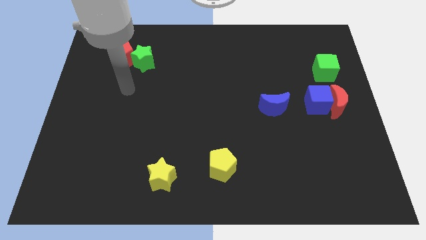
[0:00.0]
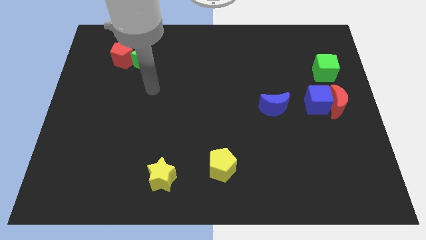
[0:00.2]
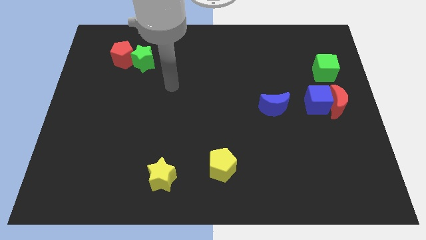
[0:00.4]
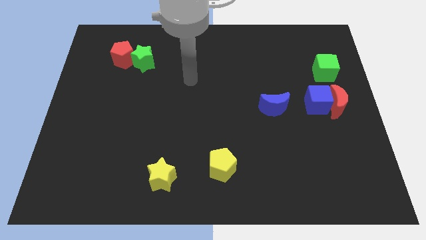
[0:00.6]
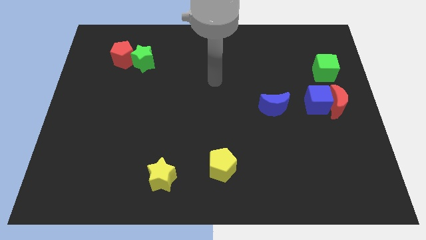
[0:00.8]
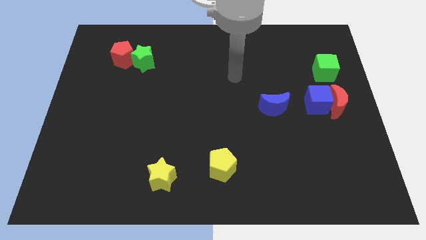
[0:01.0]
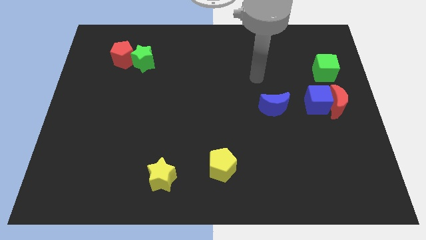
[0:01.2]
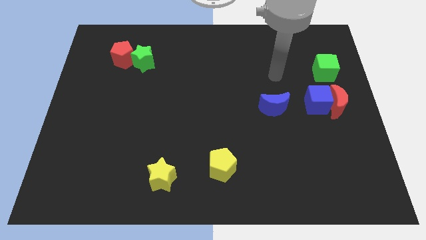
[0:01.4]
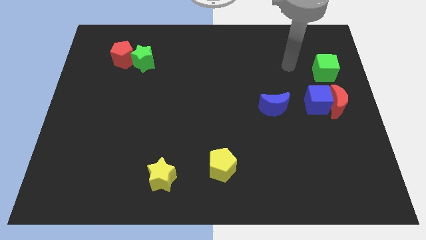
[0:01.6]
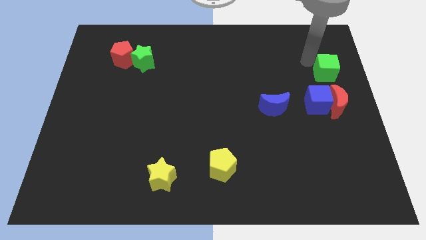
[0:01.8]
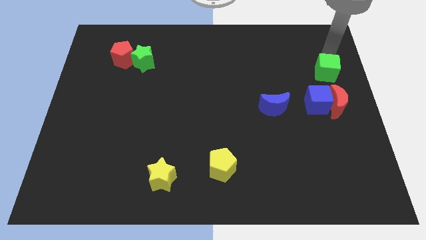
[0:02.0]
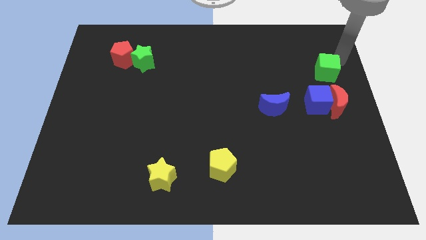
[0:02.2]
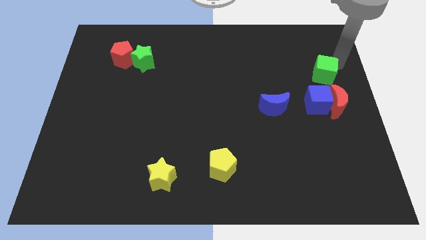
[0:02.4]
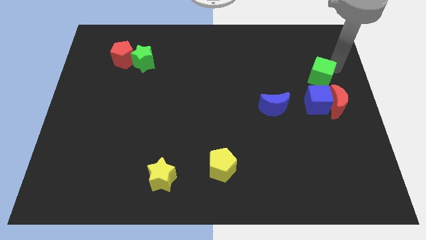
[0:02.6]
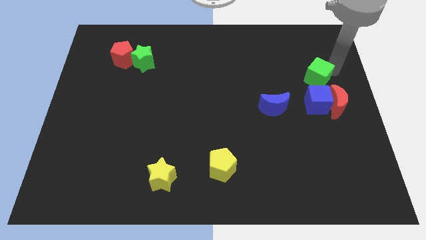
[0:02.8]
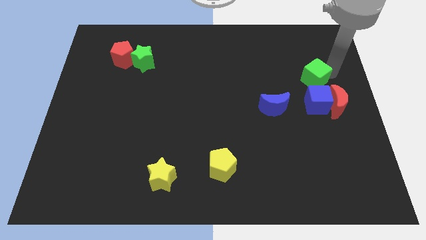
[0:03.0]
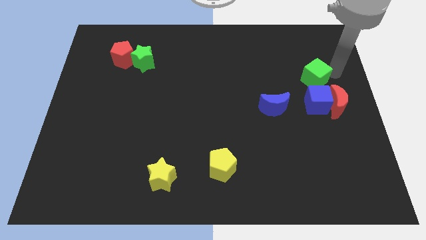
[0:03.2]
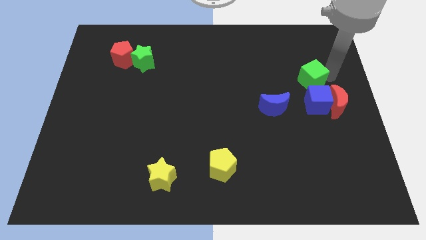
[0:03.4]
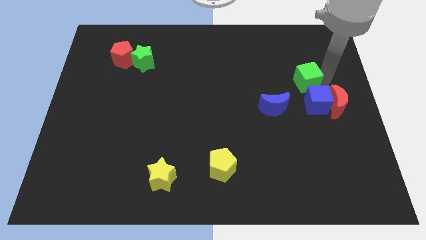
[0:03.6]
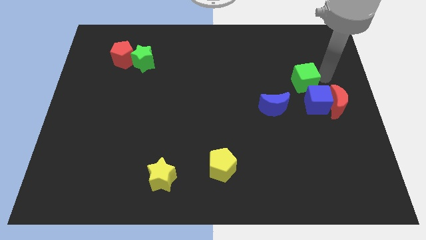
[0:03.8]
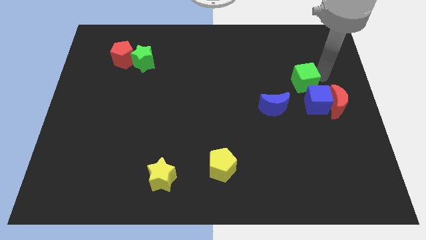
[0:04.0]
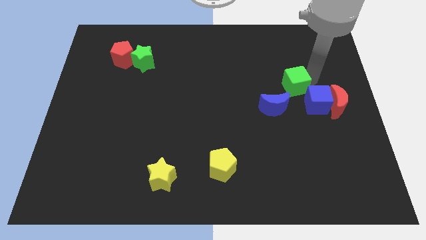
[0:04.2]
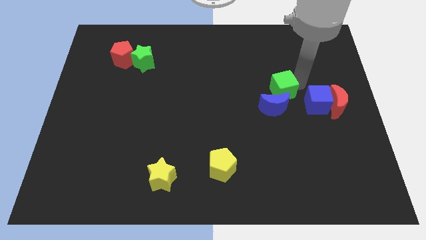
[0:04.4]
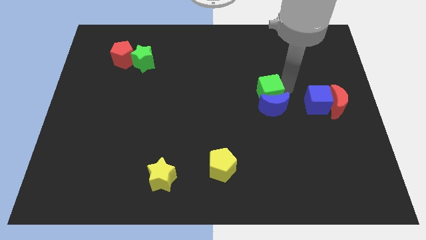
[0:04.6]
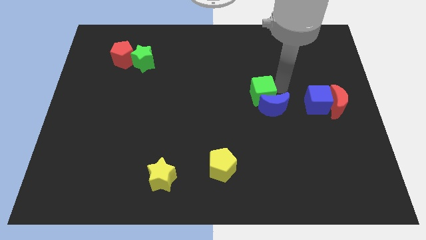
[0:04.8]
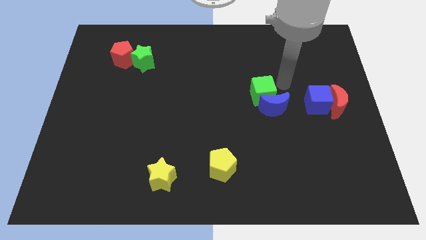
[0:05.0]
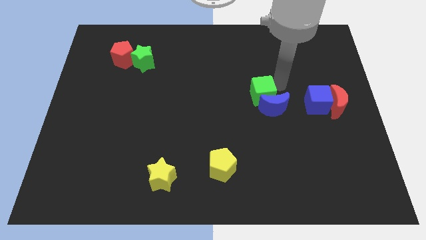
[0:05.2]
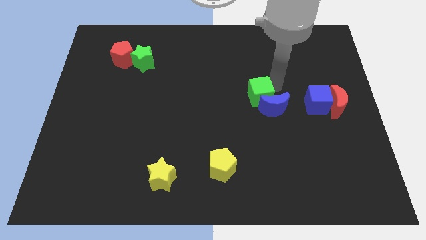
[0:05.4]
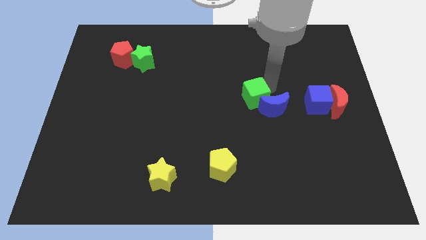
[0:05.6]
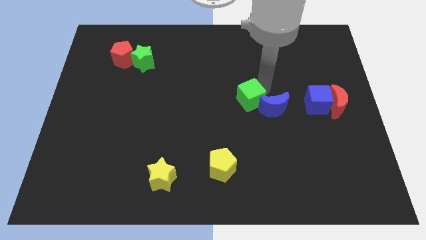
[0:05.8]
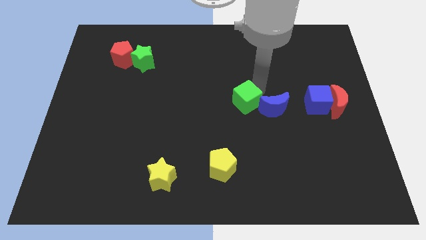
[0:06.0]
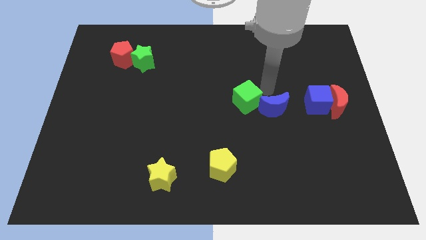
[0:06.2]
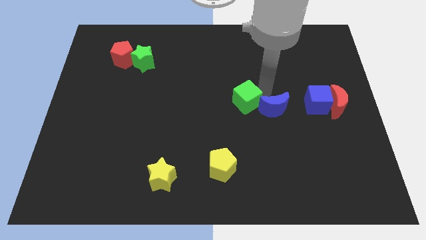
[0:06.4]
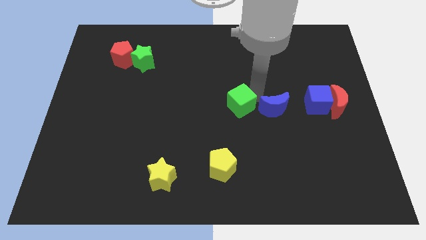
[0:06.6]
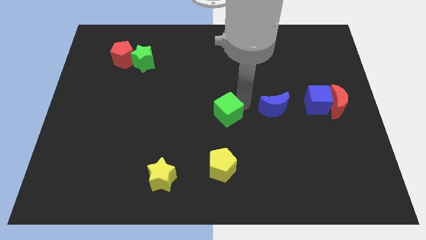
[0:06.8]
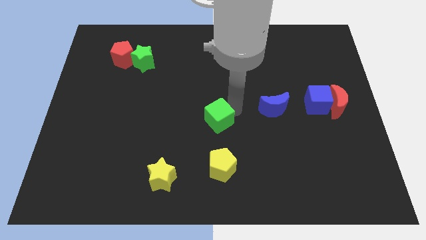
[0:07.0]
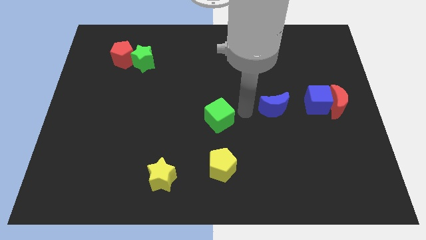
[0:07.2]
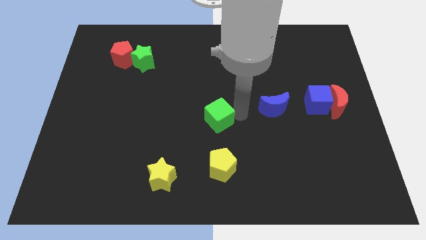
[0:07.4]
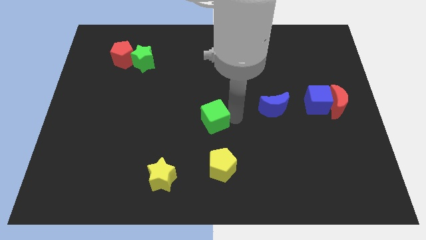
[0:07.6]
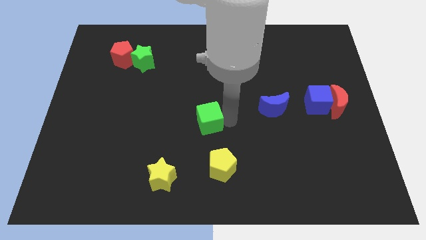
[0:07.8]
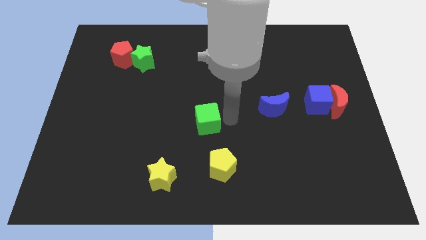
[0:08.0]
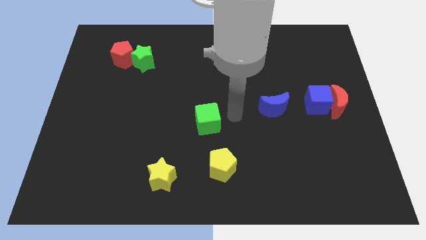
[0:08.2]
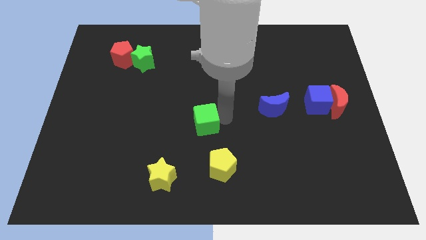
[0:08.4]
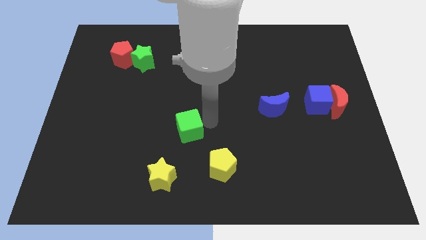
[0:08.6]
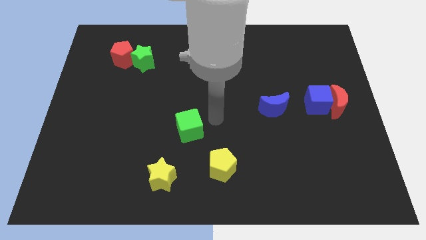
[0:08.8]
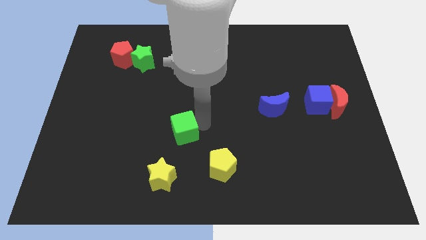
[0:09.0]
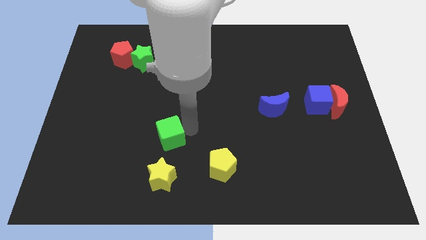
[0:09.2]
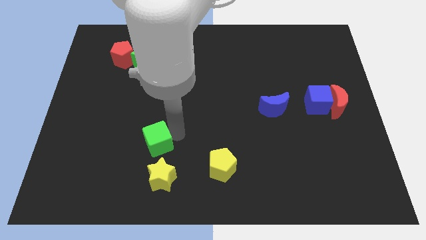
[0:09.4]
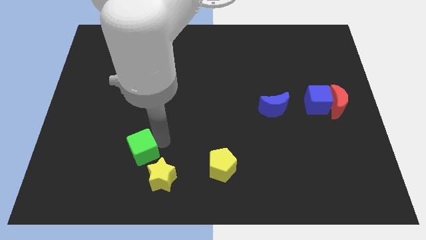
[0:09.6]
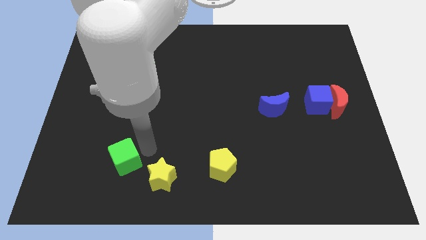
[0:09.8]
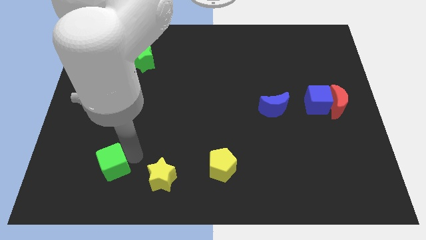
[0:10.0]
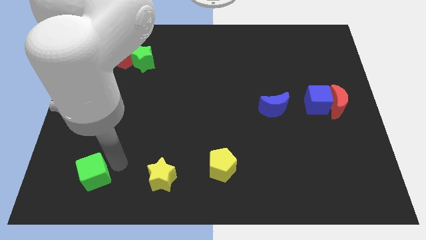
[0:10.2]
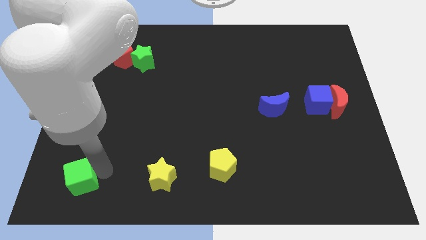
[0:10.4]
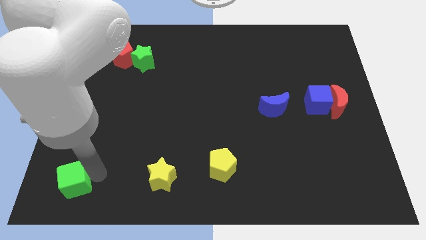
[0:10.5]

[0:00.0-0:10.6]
put the green cube to the lower left corner

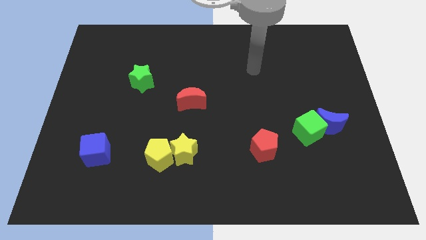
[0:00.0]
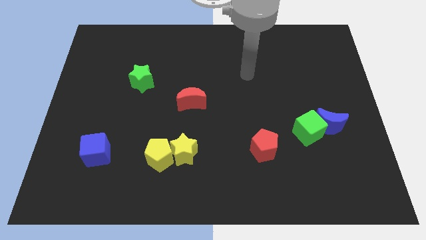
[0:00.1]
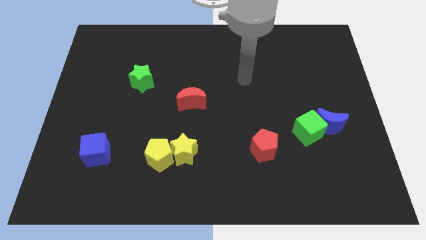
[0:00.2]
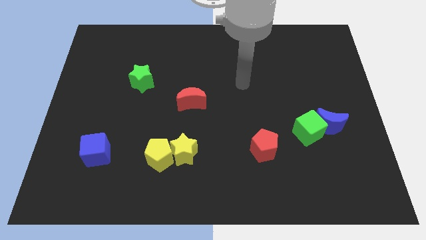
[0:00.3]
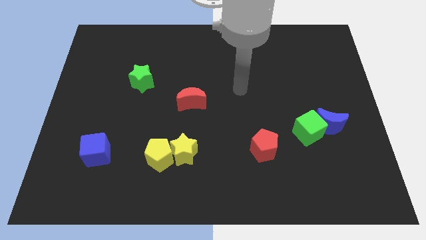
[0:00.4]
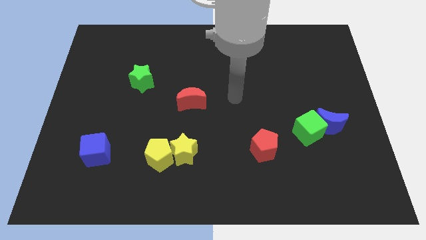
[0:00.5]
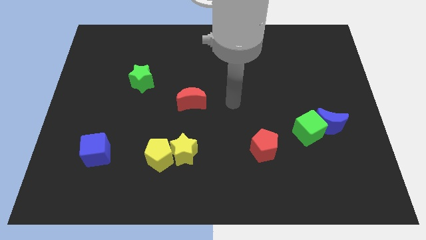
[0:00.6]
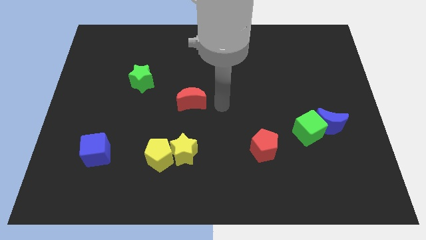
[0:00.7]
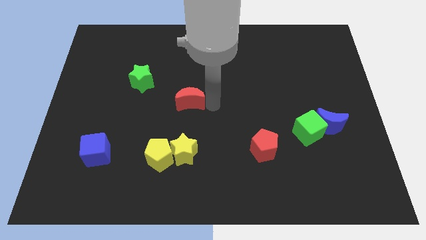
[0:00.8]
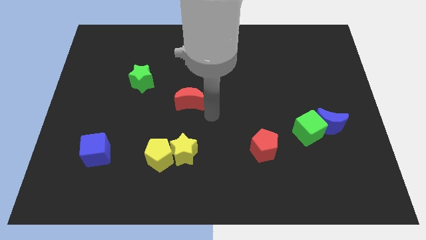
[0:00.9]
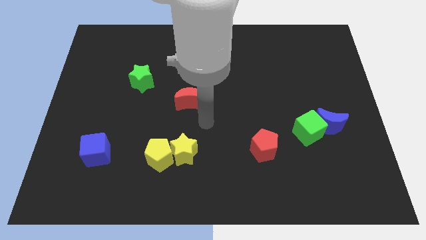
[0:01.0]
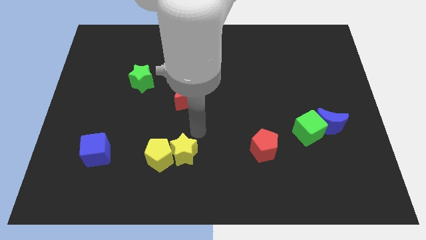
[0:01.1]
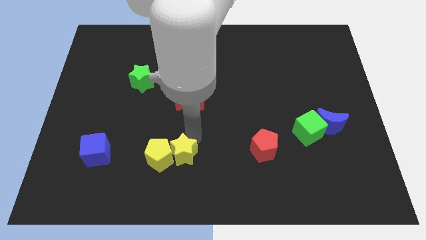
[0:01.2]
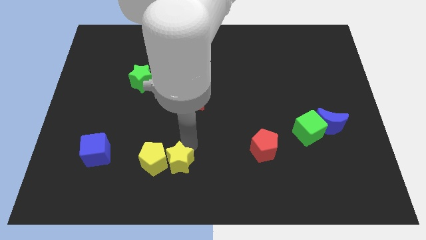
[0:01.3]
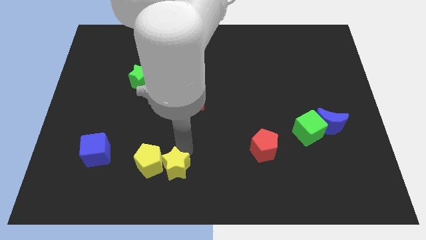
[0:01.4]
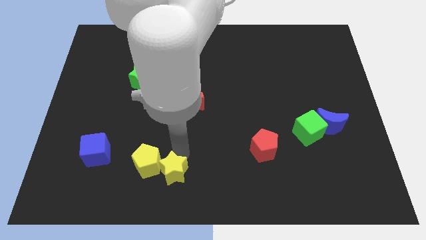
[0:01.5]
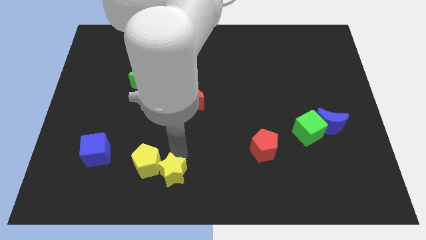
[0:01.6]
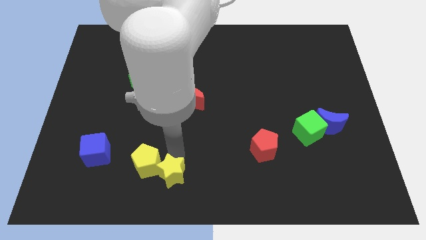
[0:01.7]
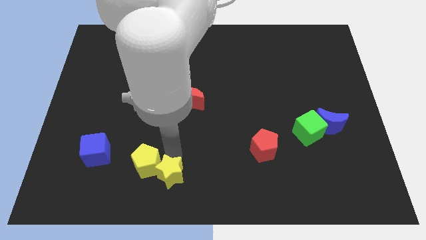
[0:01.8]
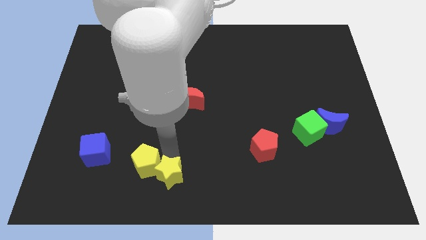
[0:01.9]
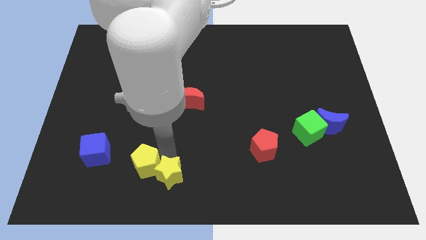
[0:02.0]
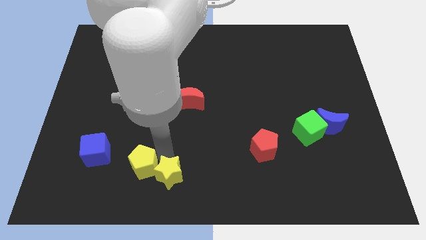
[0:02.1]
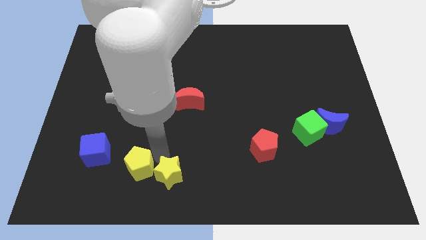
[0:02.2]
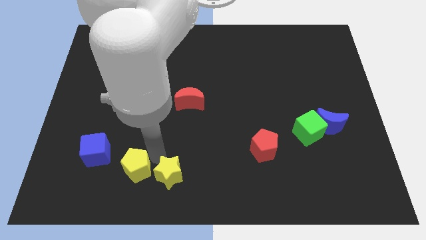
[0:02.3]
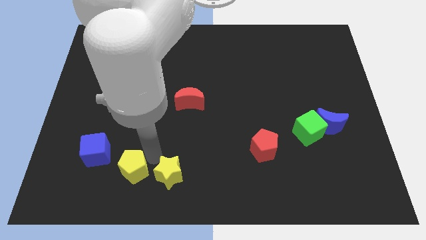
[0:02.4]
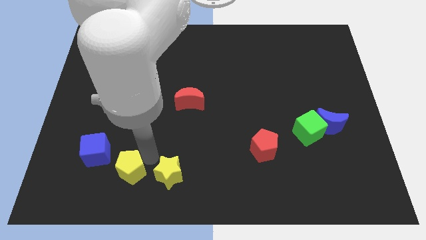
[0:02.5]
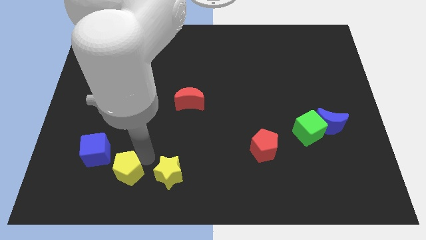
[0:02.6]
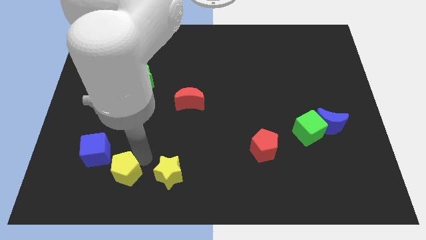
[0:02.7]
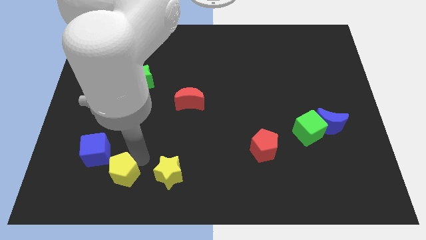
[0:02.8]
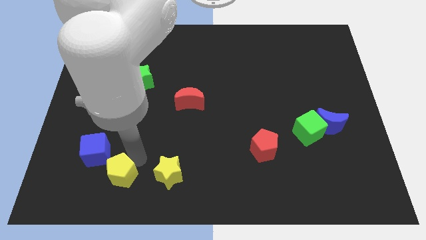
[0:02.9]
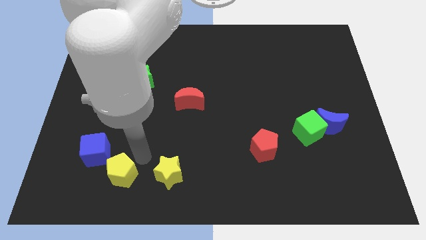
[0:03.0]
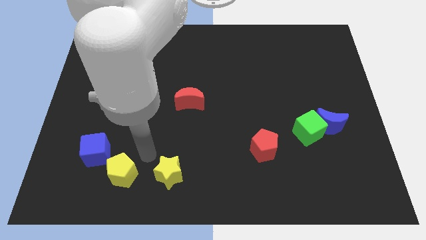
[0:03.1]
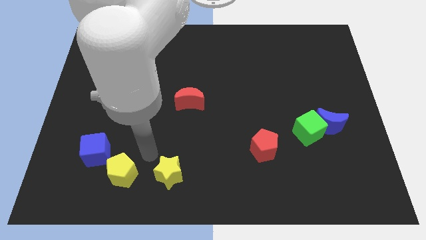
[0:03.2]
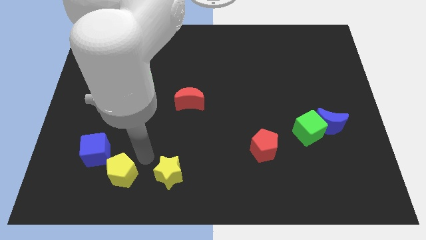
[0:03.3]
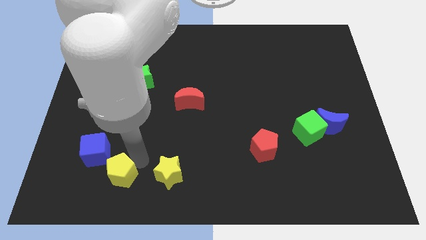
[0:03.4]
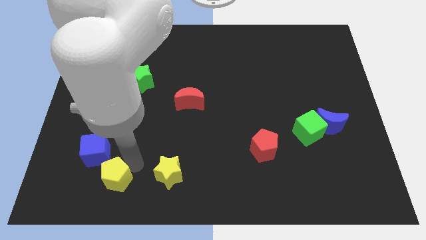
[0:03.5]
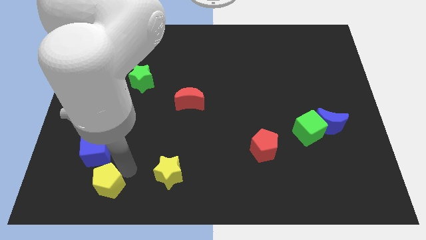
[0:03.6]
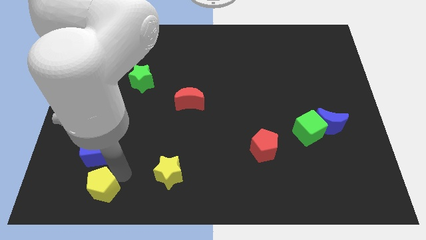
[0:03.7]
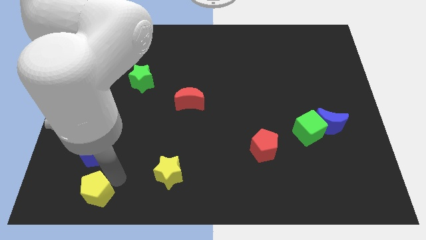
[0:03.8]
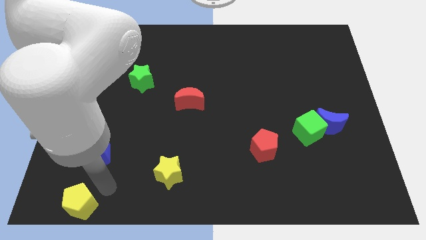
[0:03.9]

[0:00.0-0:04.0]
push the yellow pentagon to the lower left corner
